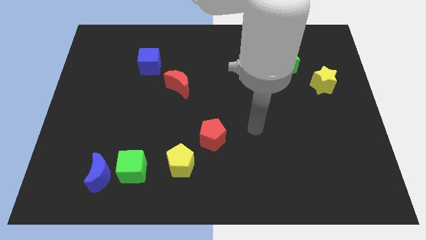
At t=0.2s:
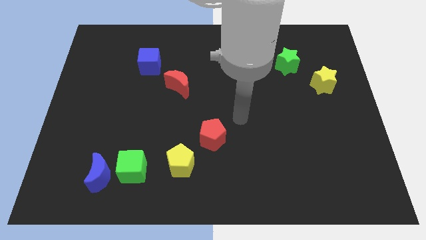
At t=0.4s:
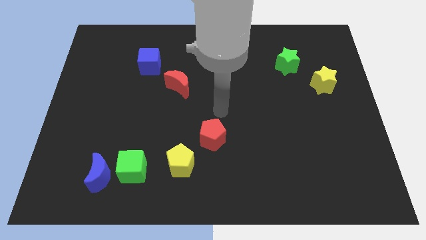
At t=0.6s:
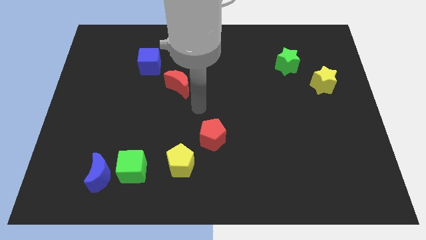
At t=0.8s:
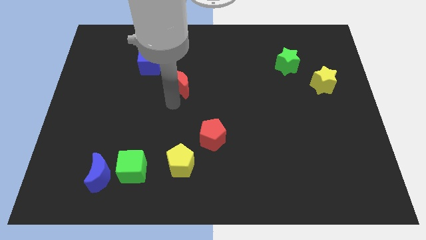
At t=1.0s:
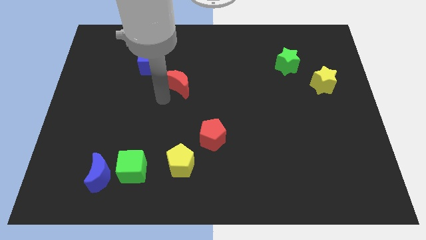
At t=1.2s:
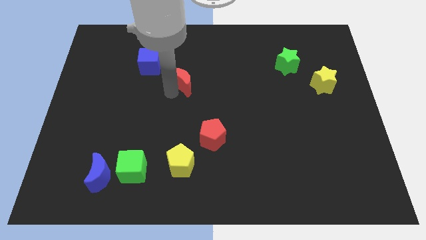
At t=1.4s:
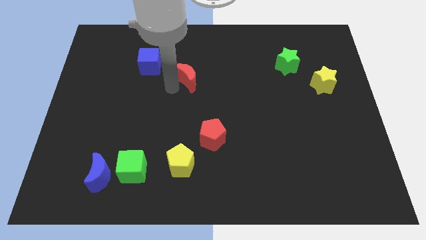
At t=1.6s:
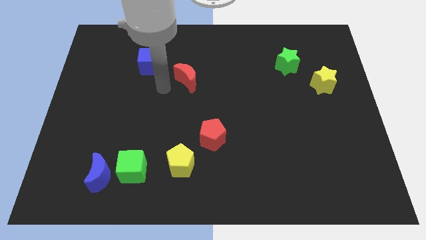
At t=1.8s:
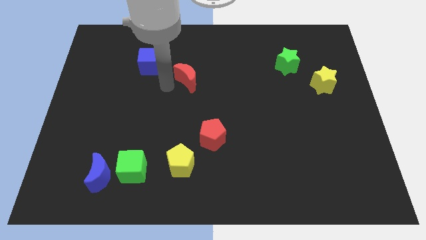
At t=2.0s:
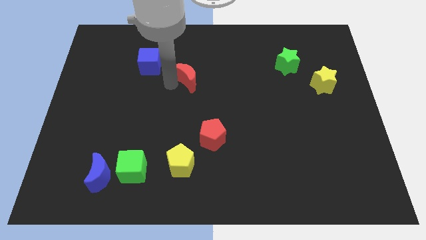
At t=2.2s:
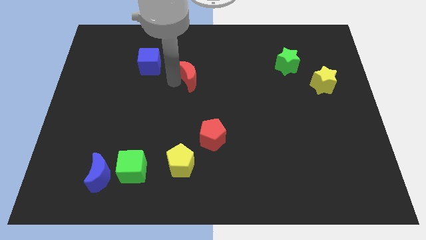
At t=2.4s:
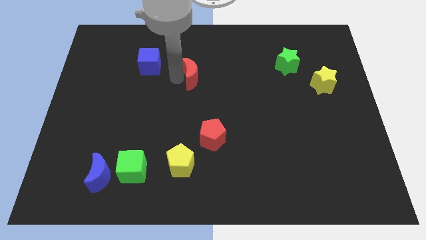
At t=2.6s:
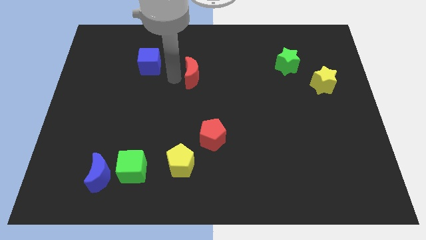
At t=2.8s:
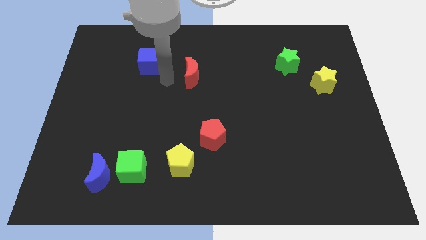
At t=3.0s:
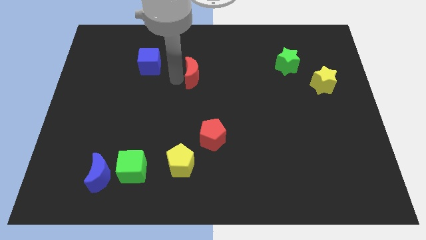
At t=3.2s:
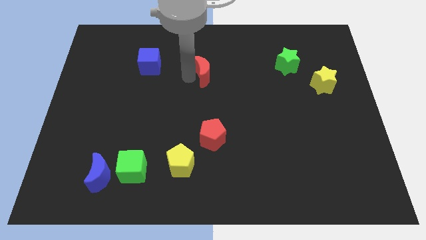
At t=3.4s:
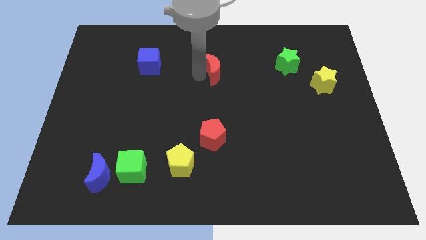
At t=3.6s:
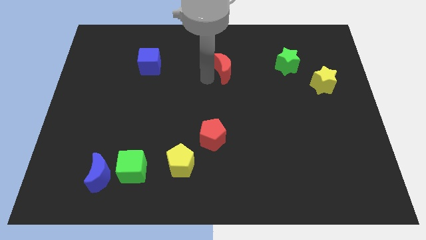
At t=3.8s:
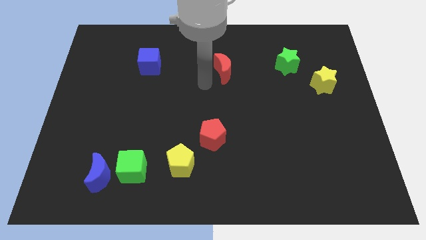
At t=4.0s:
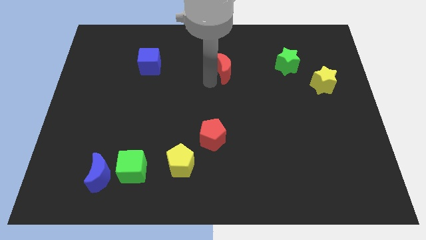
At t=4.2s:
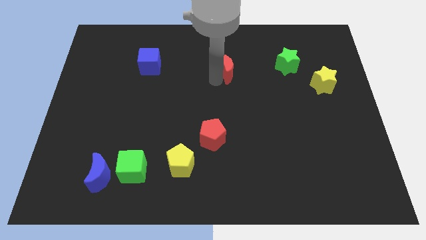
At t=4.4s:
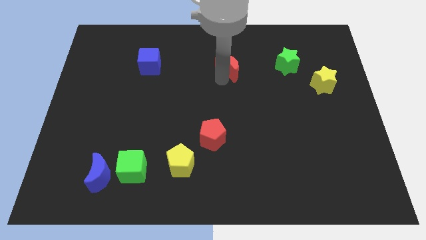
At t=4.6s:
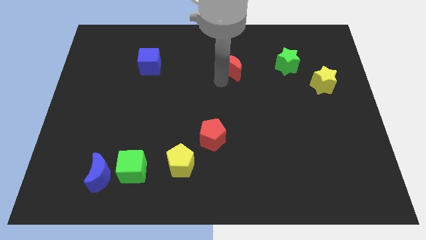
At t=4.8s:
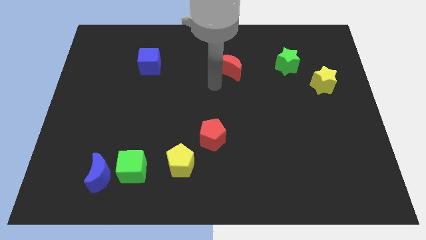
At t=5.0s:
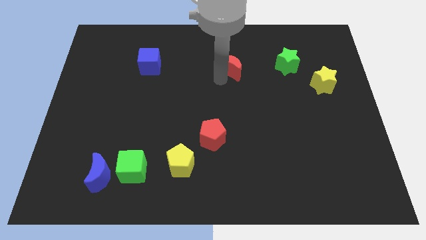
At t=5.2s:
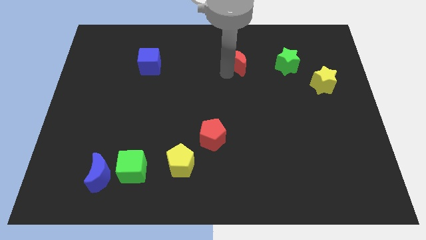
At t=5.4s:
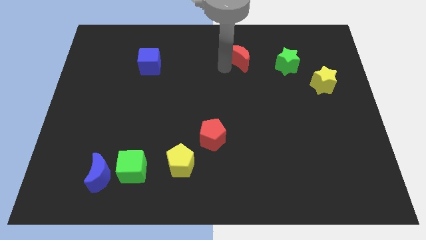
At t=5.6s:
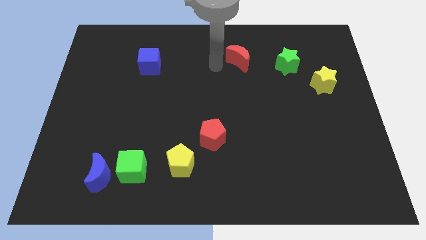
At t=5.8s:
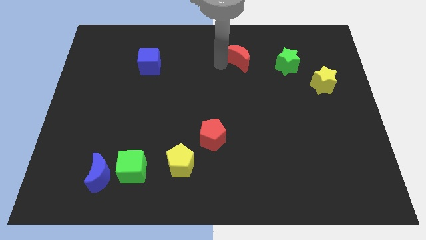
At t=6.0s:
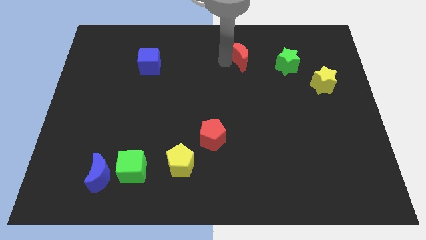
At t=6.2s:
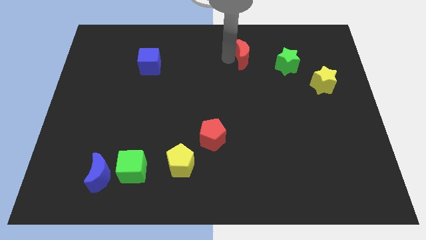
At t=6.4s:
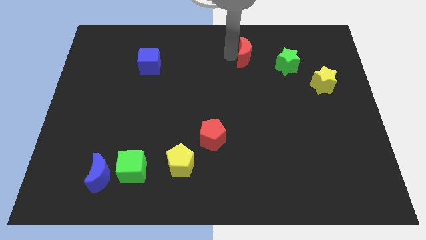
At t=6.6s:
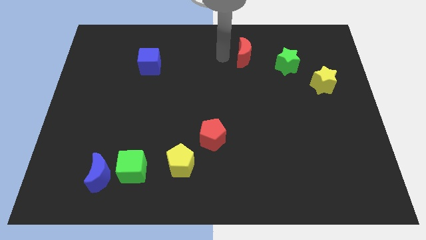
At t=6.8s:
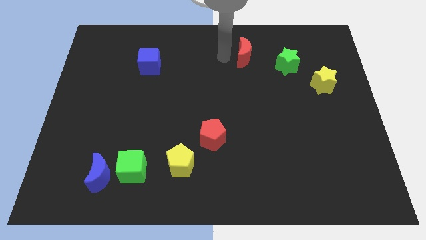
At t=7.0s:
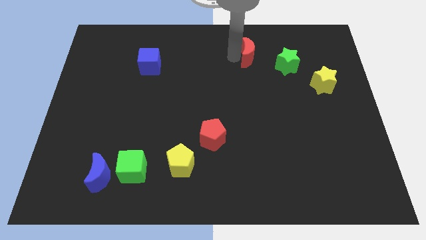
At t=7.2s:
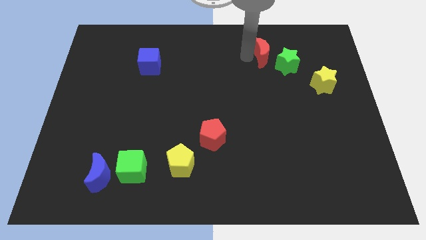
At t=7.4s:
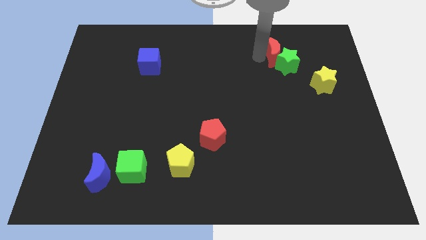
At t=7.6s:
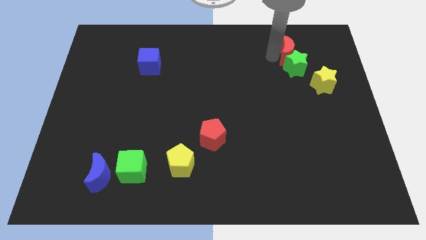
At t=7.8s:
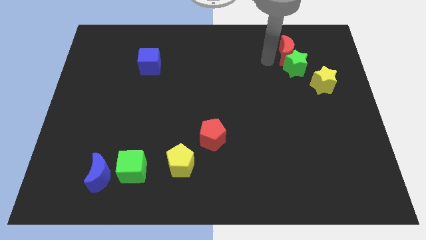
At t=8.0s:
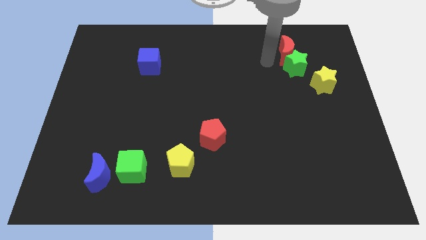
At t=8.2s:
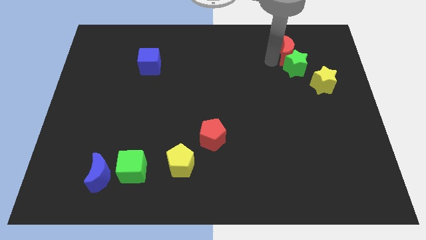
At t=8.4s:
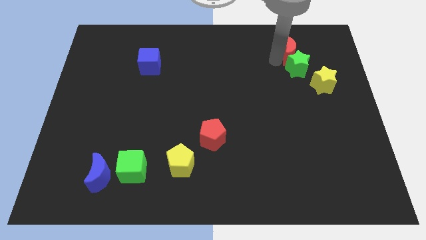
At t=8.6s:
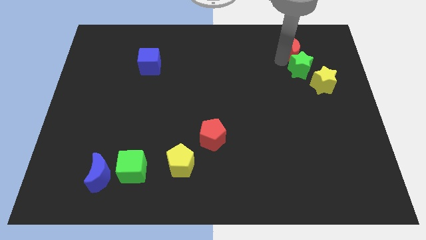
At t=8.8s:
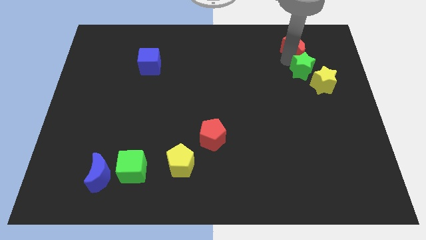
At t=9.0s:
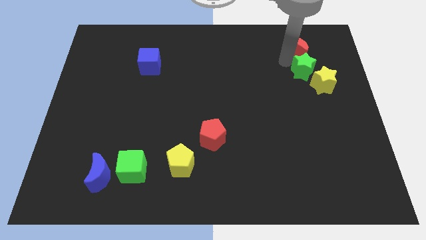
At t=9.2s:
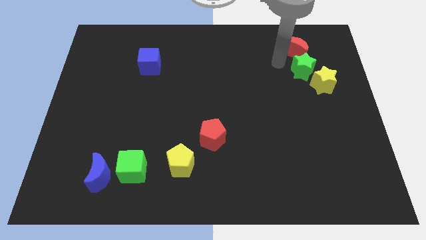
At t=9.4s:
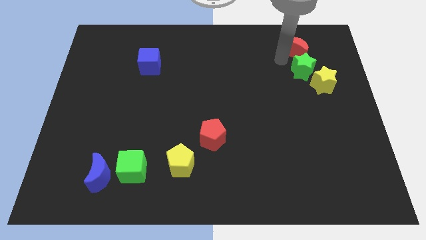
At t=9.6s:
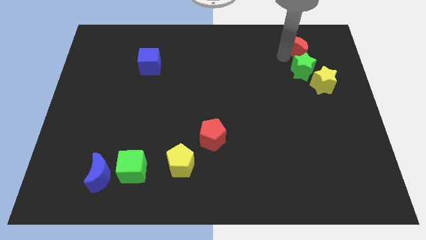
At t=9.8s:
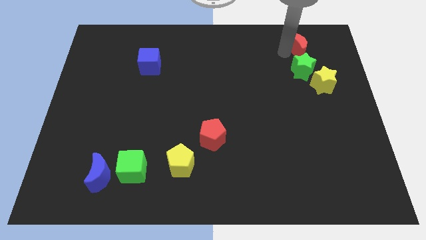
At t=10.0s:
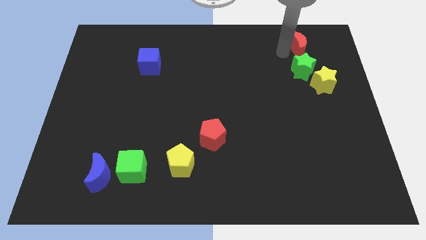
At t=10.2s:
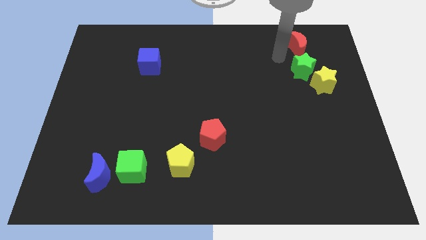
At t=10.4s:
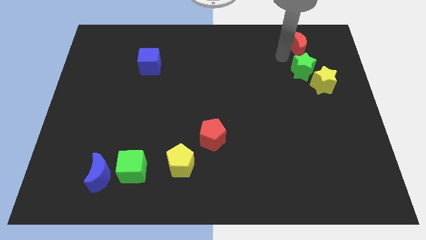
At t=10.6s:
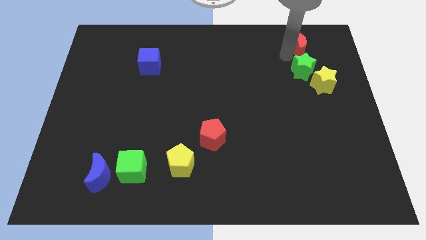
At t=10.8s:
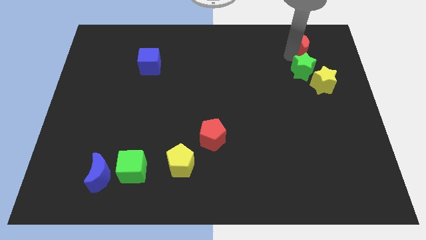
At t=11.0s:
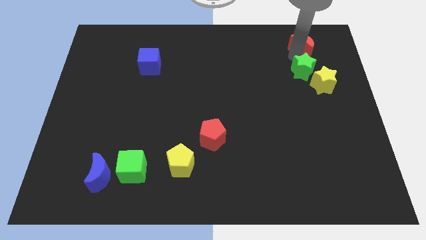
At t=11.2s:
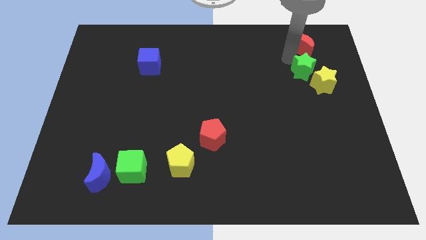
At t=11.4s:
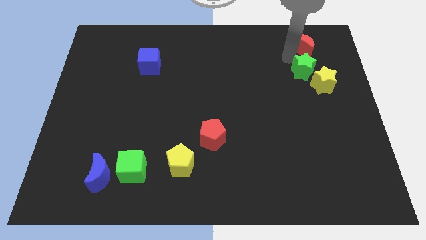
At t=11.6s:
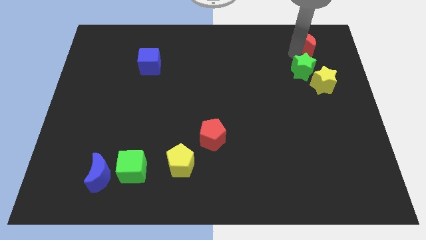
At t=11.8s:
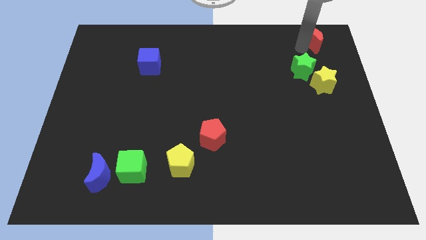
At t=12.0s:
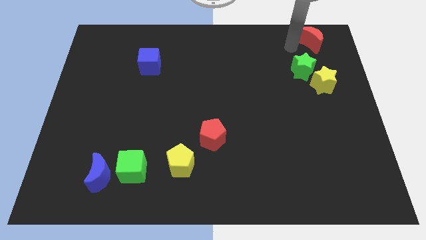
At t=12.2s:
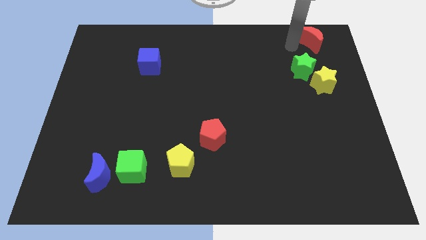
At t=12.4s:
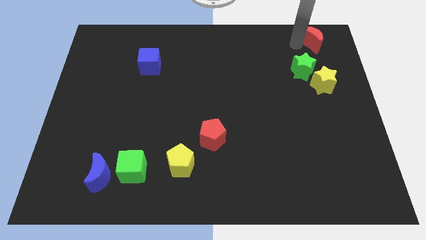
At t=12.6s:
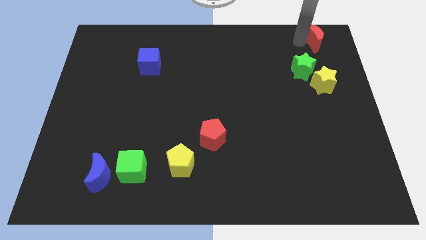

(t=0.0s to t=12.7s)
push the red moon to the upper right corner

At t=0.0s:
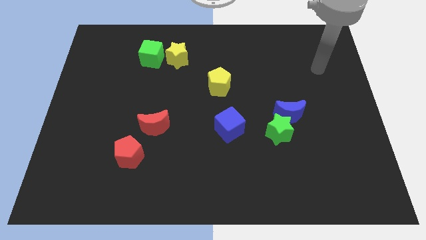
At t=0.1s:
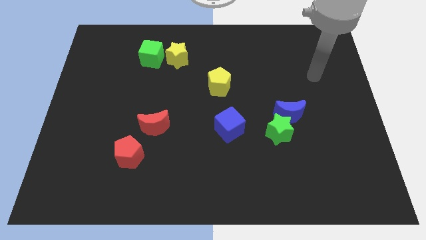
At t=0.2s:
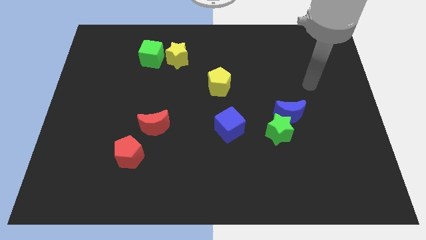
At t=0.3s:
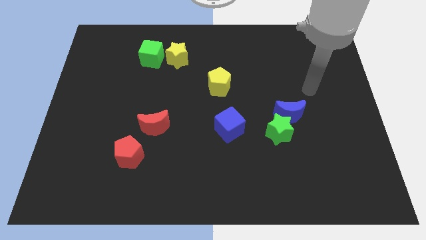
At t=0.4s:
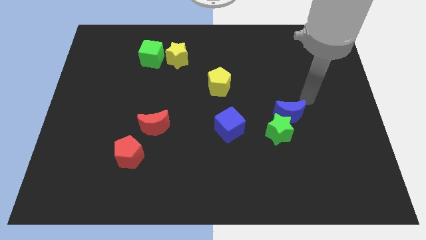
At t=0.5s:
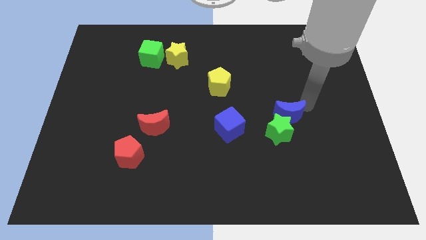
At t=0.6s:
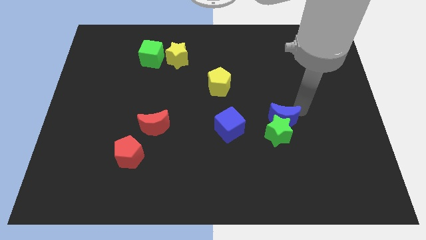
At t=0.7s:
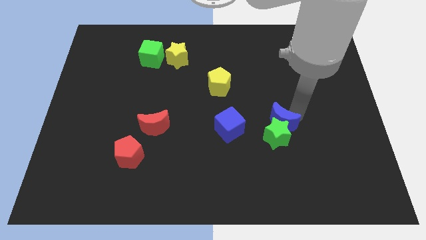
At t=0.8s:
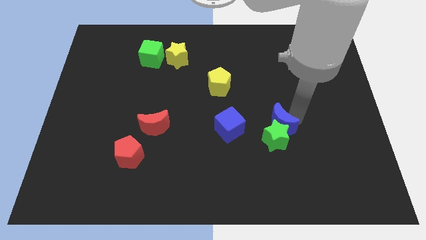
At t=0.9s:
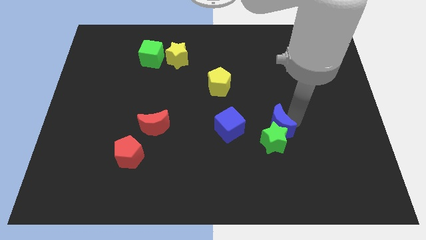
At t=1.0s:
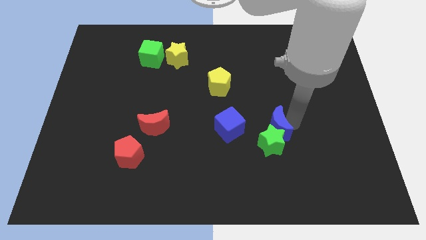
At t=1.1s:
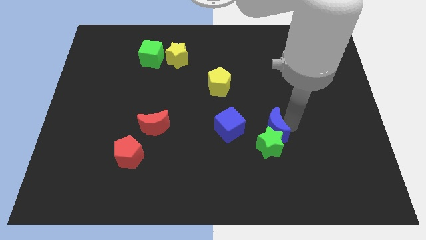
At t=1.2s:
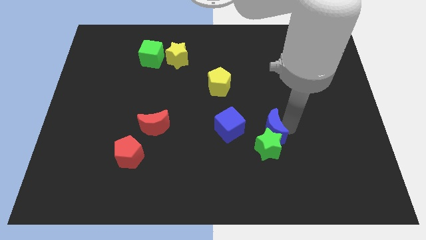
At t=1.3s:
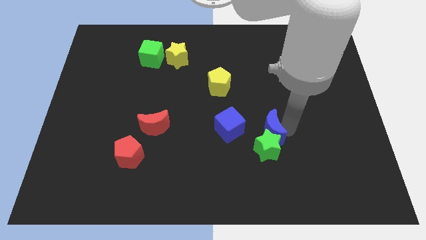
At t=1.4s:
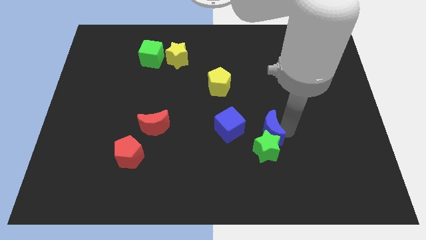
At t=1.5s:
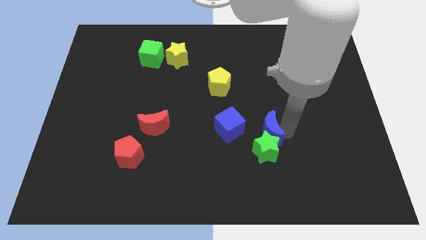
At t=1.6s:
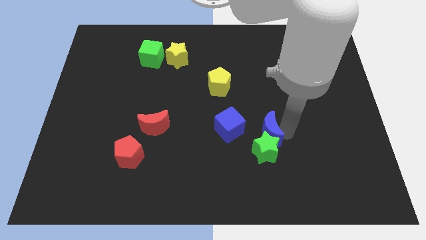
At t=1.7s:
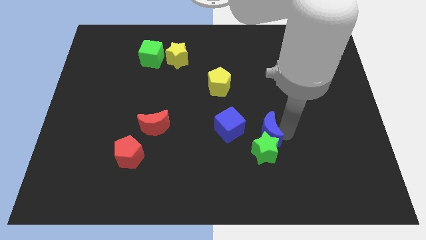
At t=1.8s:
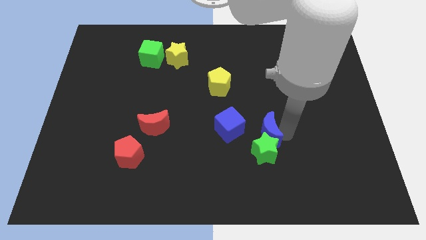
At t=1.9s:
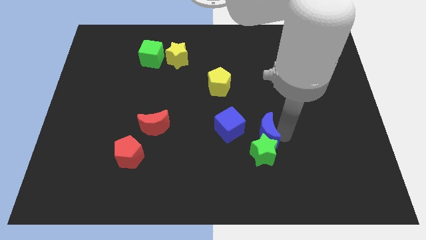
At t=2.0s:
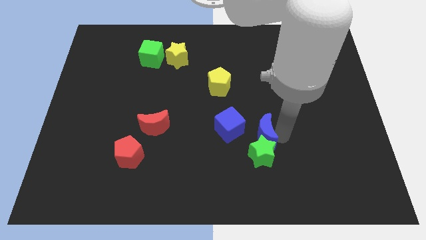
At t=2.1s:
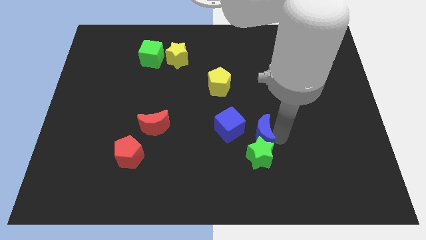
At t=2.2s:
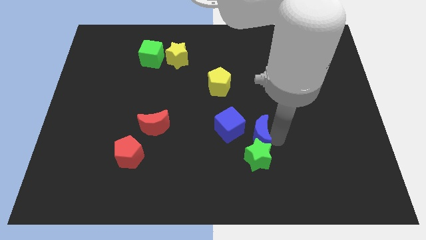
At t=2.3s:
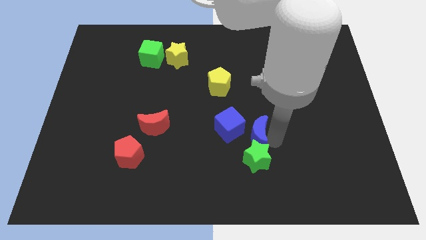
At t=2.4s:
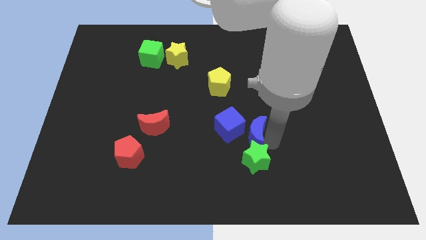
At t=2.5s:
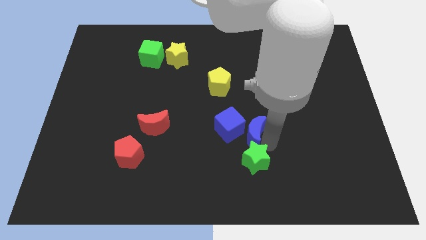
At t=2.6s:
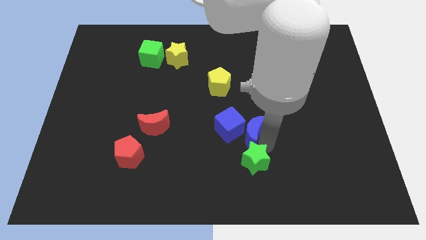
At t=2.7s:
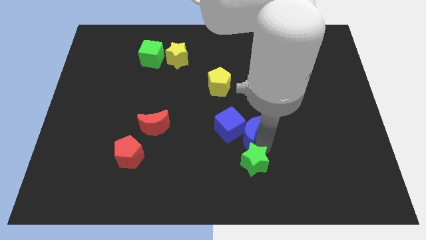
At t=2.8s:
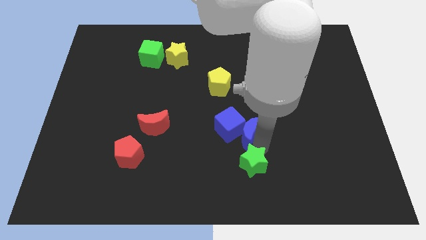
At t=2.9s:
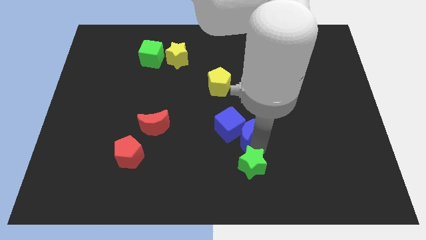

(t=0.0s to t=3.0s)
slide the green star to the bottom side
